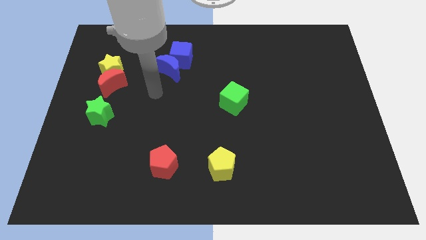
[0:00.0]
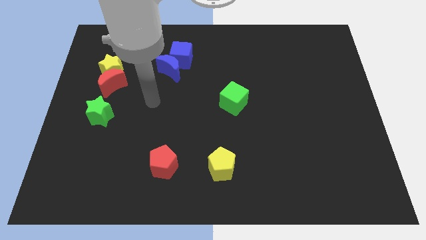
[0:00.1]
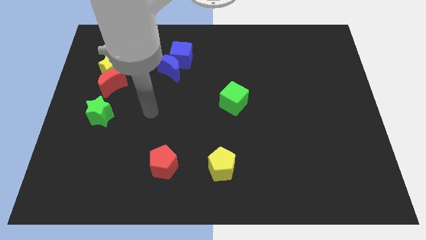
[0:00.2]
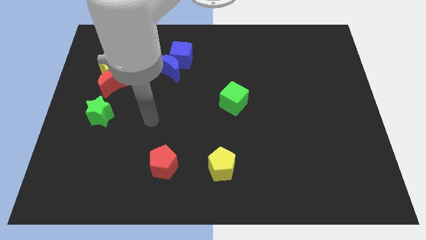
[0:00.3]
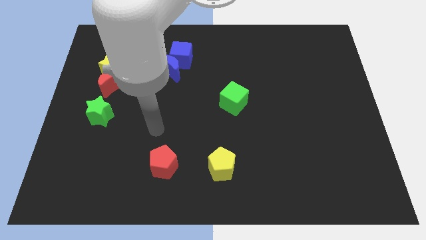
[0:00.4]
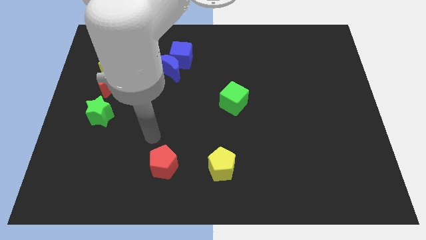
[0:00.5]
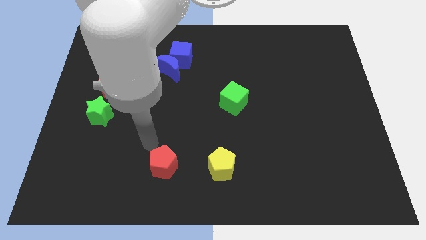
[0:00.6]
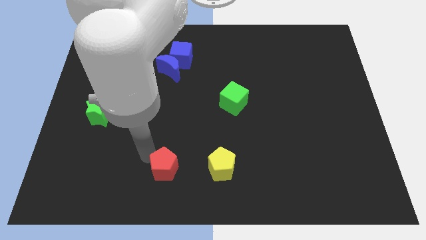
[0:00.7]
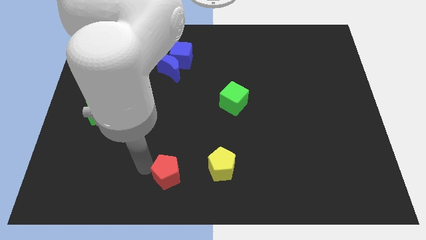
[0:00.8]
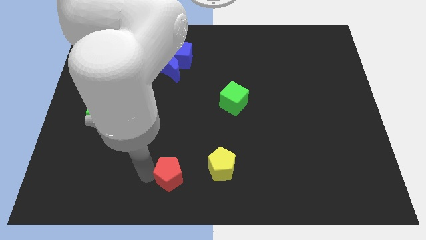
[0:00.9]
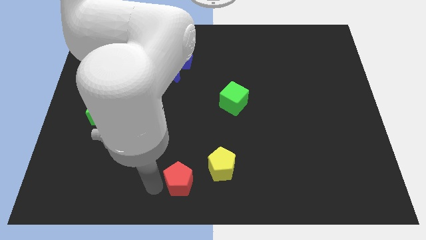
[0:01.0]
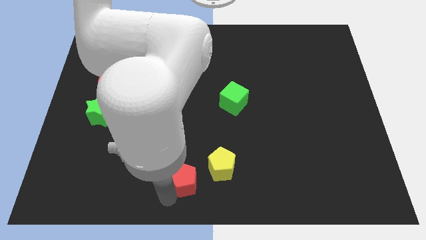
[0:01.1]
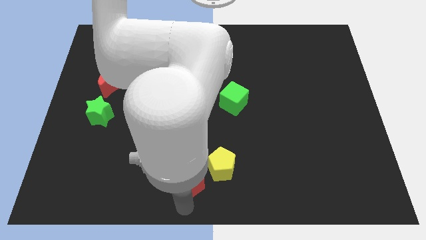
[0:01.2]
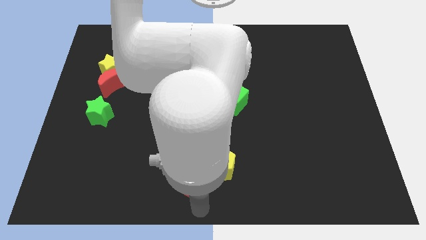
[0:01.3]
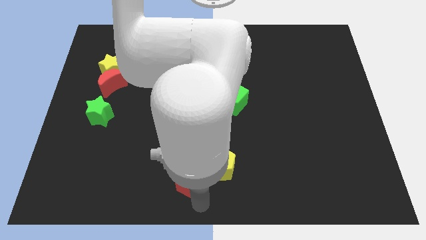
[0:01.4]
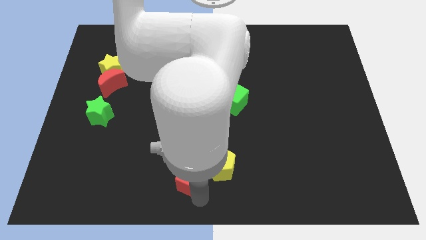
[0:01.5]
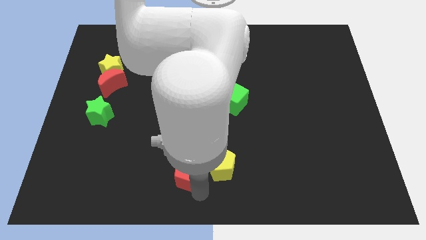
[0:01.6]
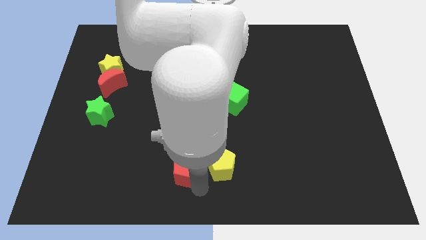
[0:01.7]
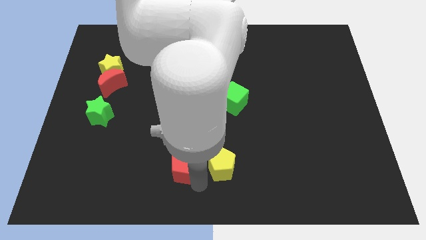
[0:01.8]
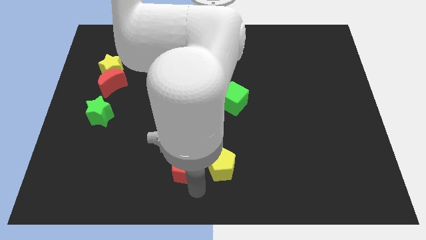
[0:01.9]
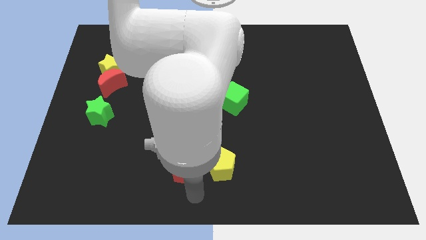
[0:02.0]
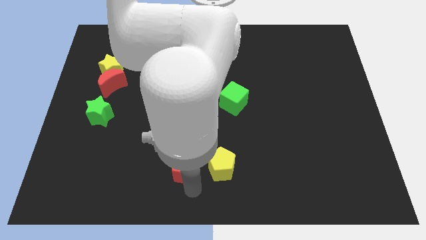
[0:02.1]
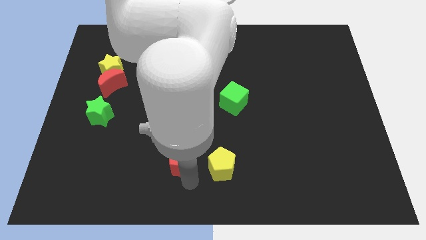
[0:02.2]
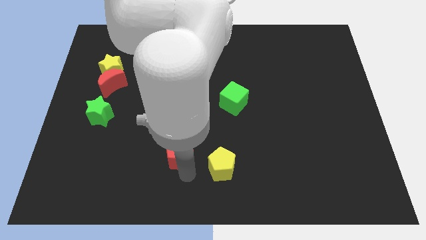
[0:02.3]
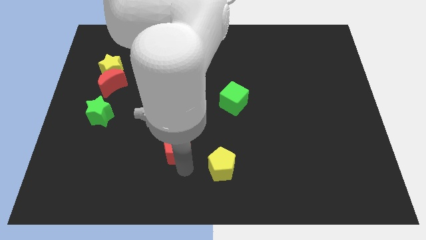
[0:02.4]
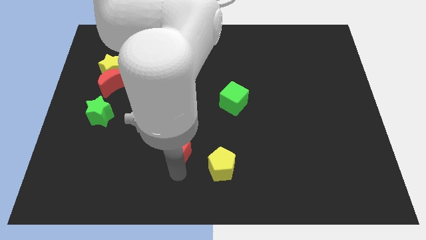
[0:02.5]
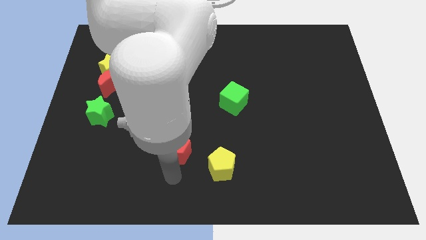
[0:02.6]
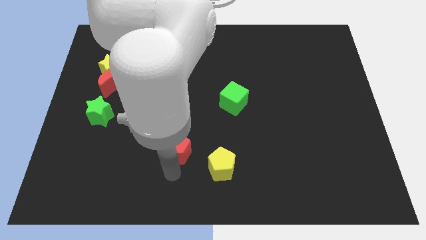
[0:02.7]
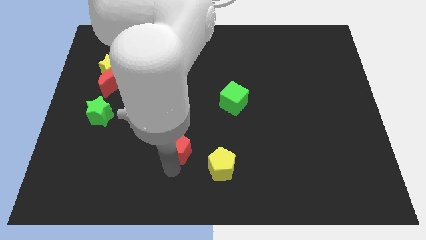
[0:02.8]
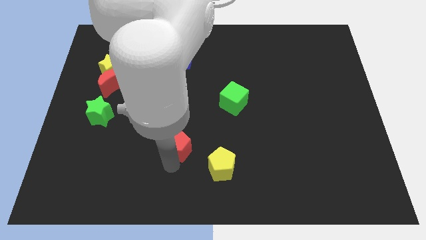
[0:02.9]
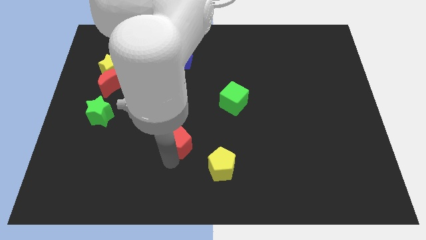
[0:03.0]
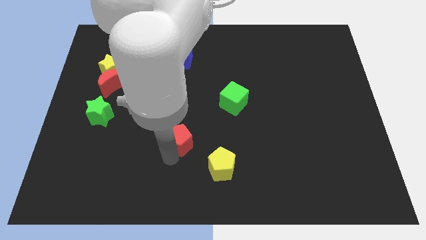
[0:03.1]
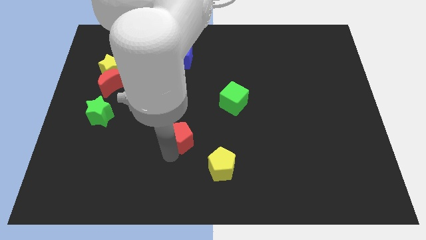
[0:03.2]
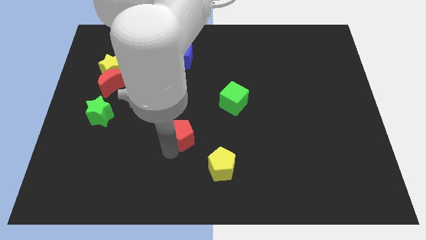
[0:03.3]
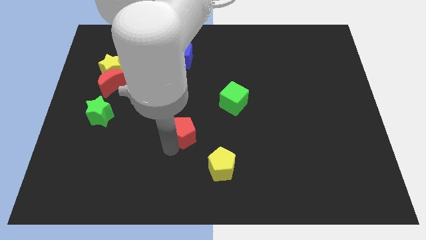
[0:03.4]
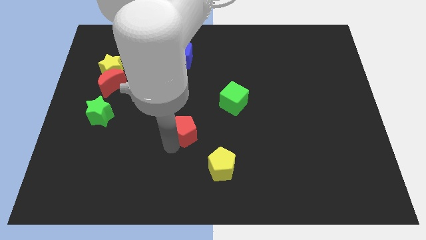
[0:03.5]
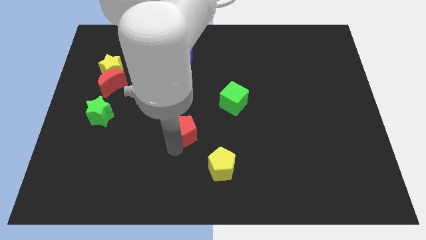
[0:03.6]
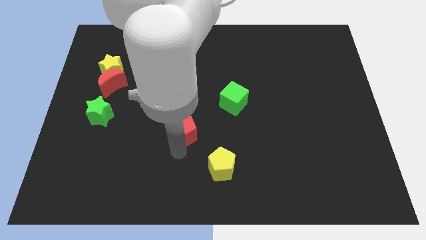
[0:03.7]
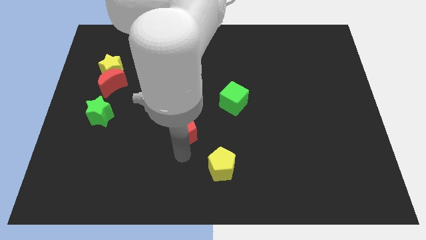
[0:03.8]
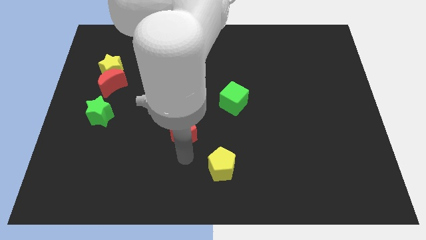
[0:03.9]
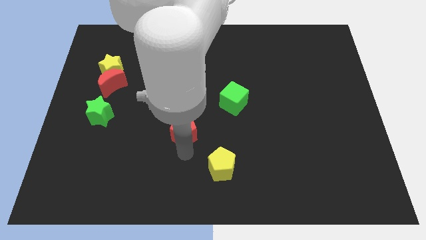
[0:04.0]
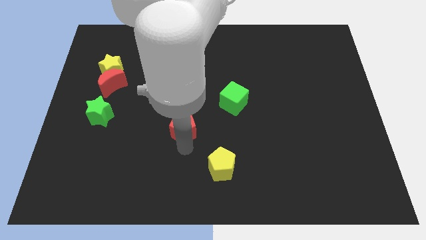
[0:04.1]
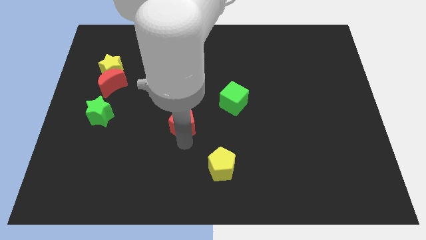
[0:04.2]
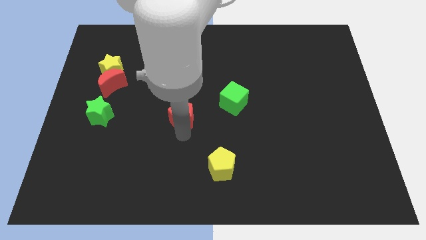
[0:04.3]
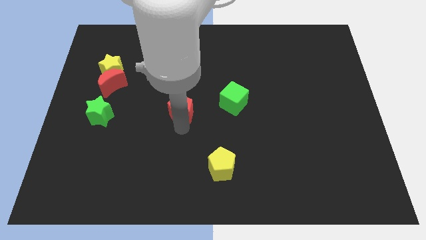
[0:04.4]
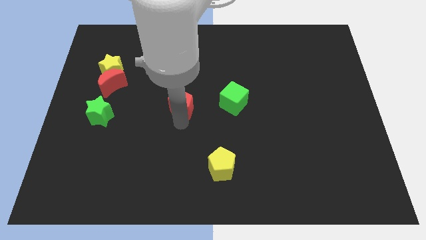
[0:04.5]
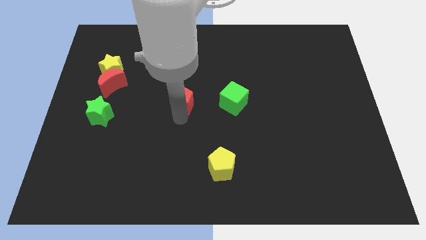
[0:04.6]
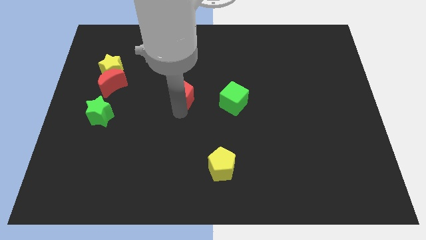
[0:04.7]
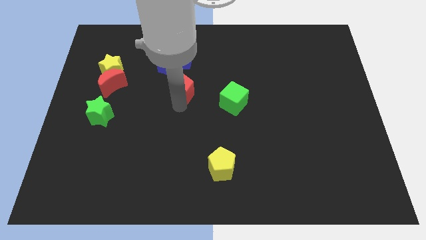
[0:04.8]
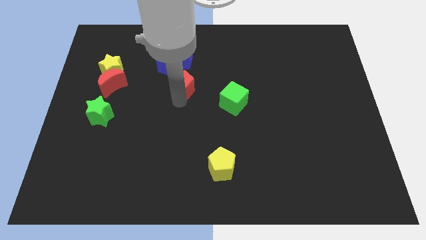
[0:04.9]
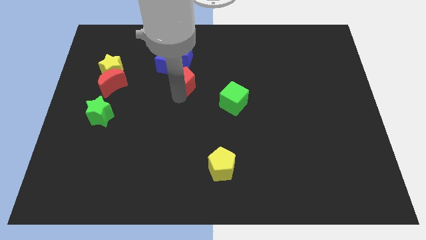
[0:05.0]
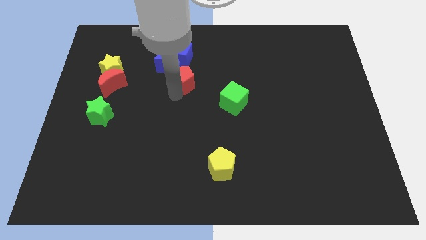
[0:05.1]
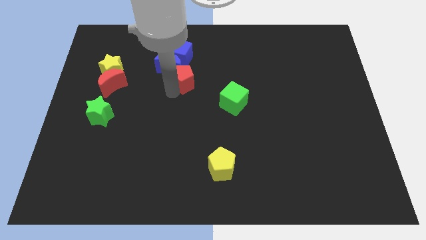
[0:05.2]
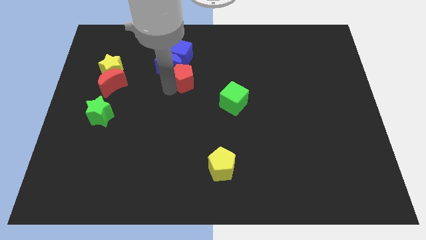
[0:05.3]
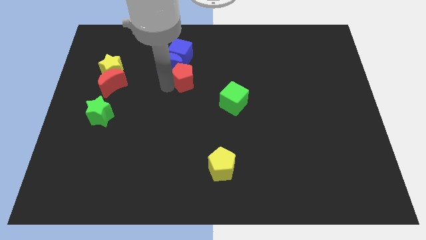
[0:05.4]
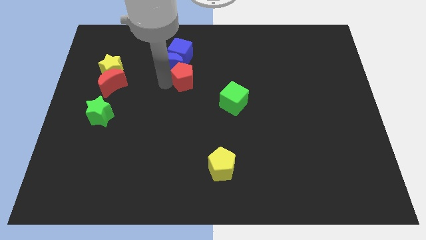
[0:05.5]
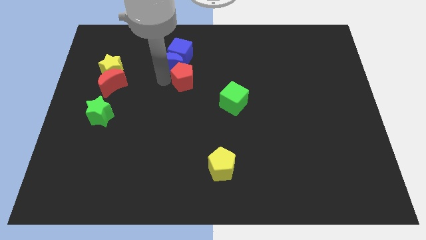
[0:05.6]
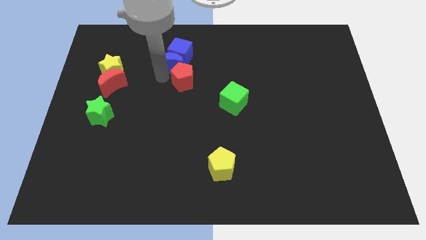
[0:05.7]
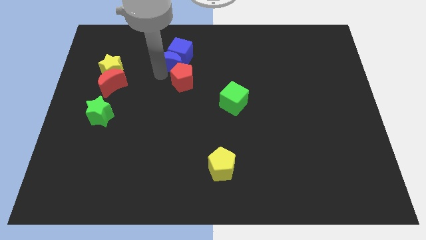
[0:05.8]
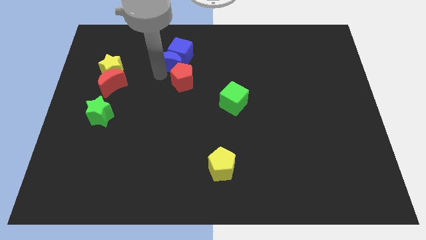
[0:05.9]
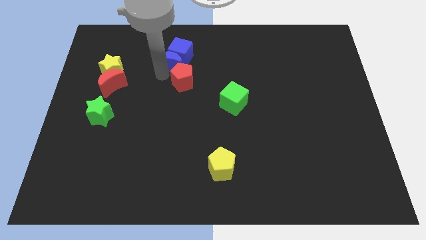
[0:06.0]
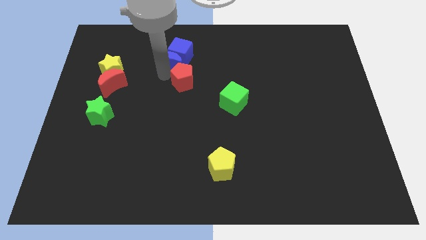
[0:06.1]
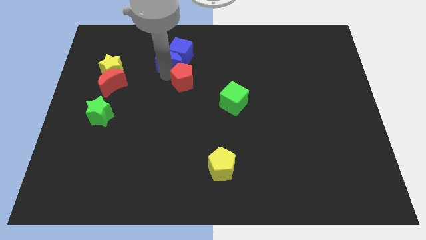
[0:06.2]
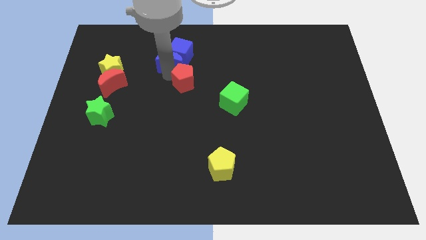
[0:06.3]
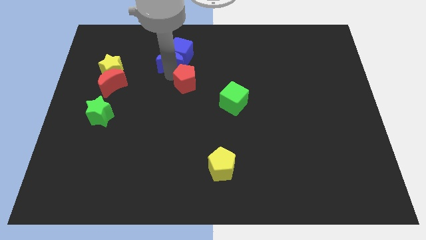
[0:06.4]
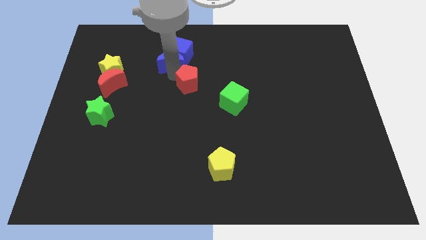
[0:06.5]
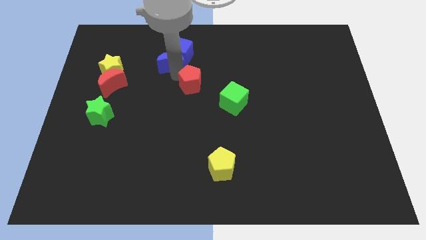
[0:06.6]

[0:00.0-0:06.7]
move the red pentagon diagonally down and to the right of the blue cube
